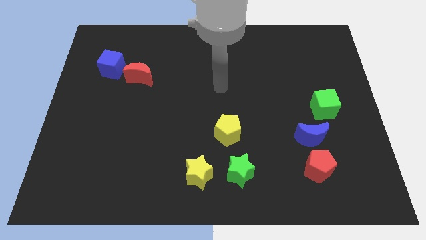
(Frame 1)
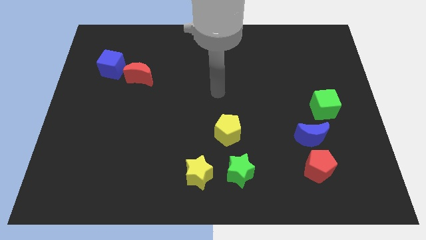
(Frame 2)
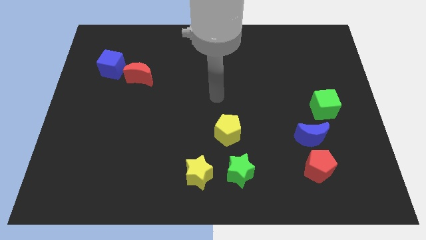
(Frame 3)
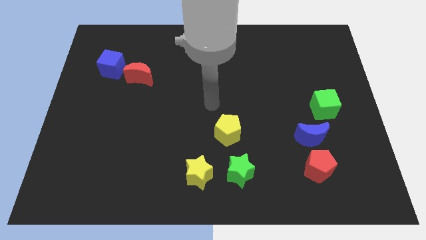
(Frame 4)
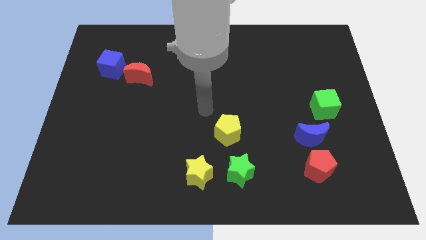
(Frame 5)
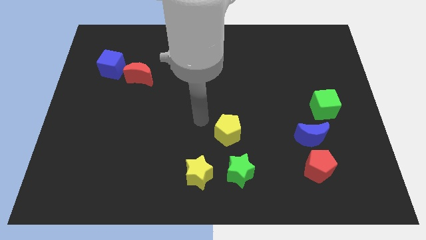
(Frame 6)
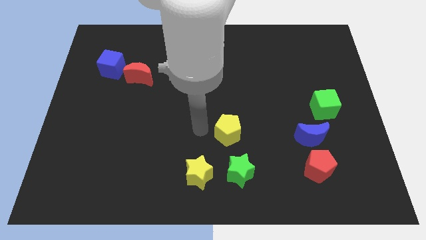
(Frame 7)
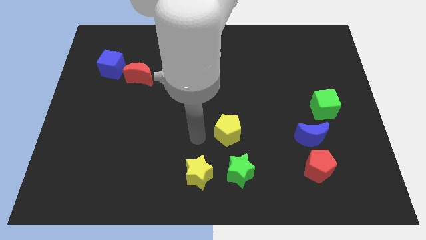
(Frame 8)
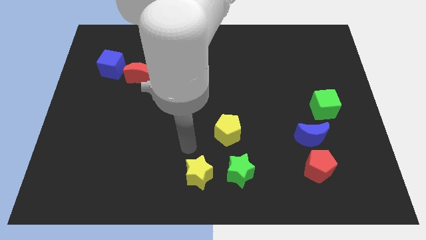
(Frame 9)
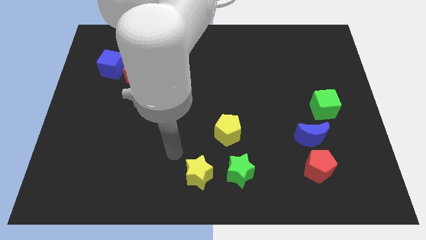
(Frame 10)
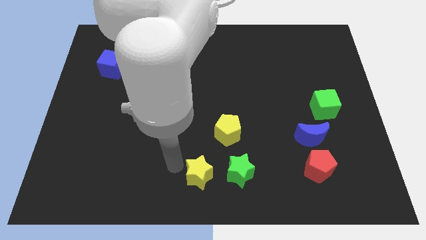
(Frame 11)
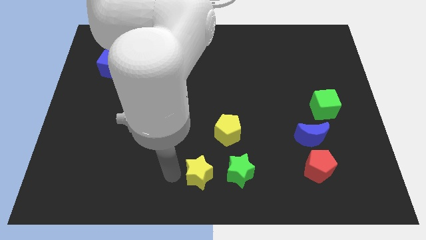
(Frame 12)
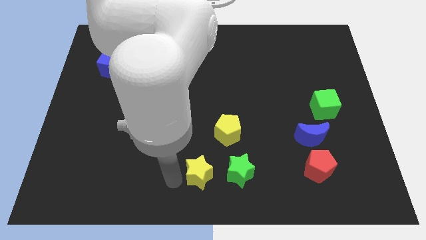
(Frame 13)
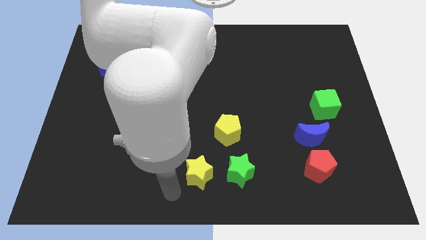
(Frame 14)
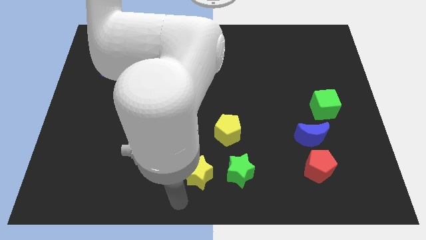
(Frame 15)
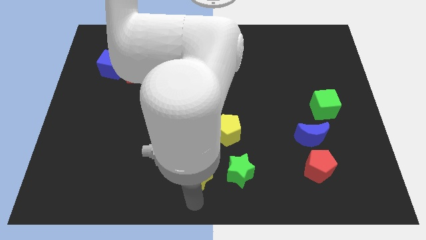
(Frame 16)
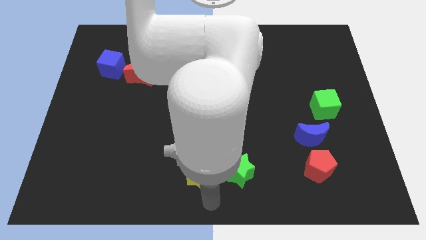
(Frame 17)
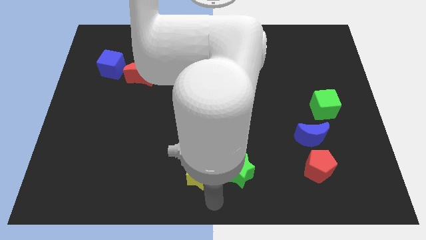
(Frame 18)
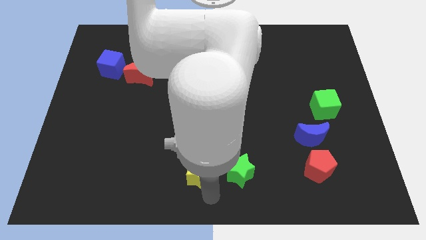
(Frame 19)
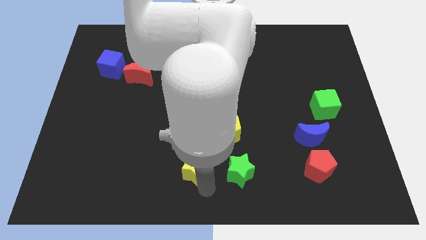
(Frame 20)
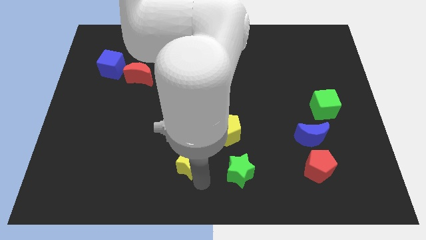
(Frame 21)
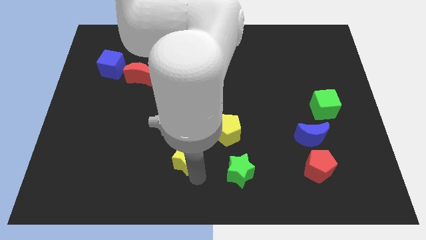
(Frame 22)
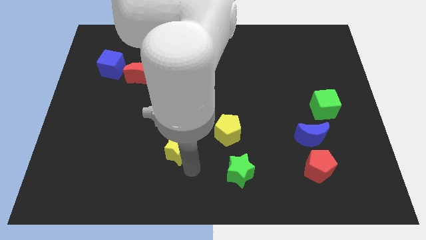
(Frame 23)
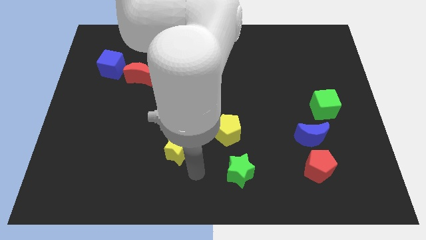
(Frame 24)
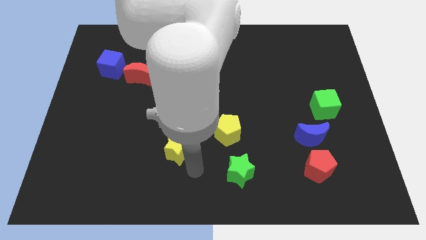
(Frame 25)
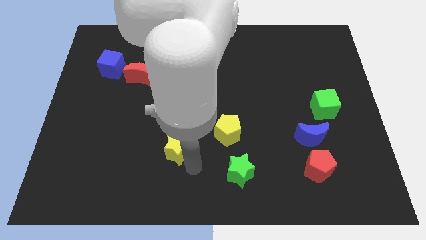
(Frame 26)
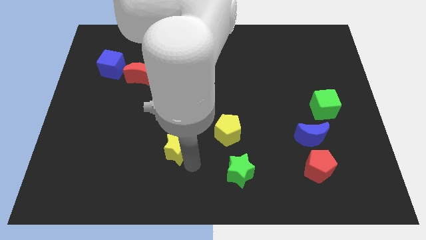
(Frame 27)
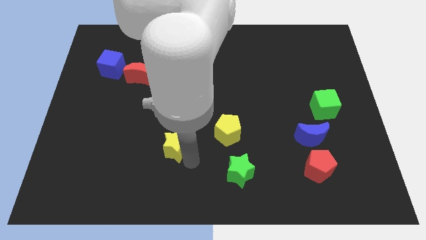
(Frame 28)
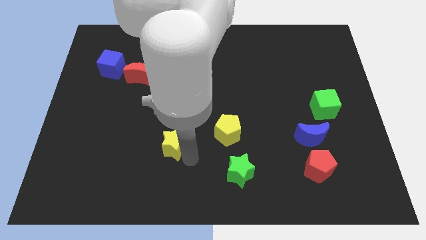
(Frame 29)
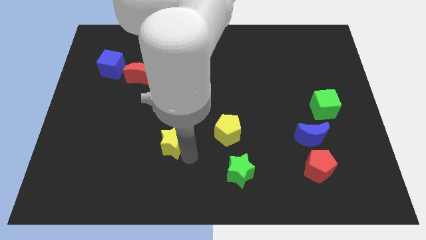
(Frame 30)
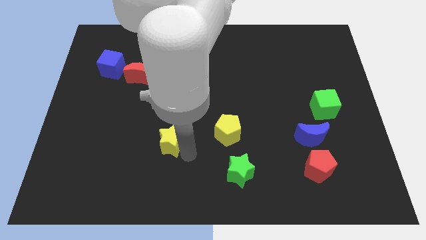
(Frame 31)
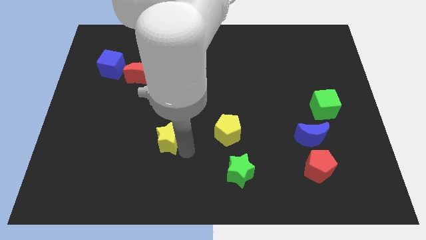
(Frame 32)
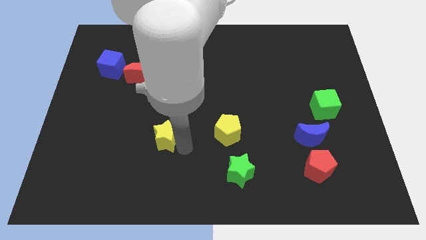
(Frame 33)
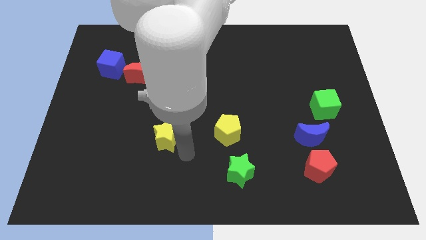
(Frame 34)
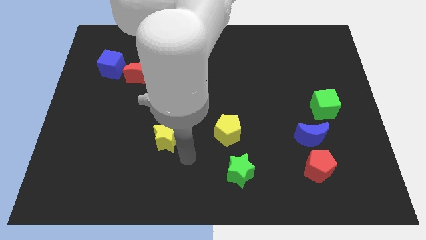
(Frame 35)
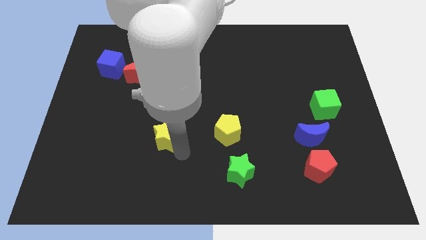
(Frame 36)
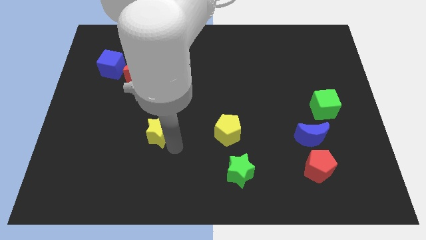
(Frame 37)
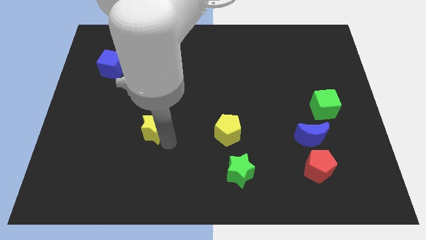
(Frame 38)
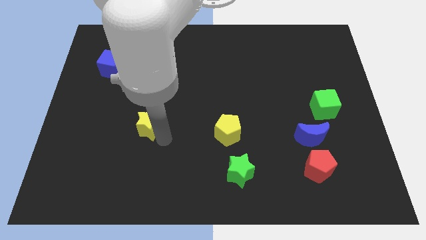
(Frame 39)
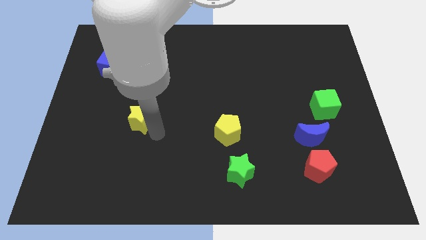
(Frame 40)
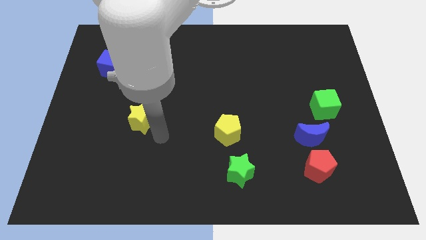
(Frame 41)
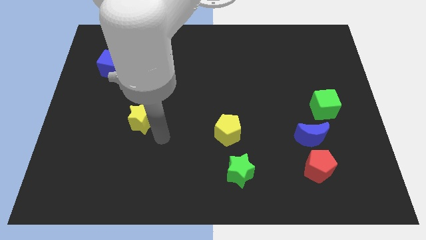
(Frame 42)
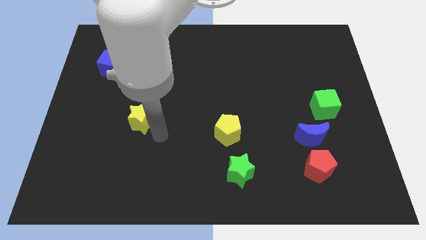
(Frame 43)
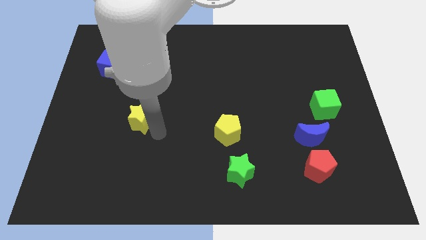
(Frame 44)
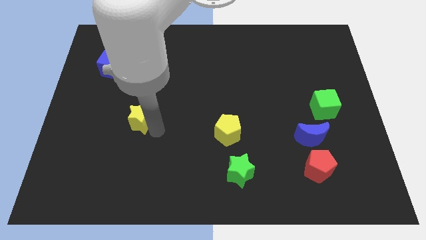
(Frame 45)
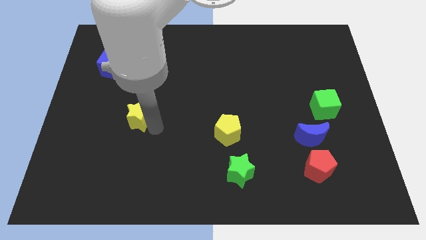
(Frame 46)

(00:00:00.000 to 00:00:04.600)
push the yellow star upwards and left diagonally

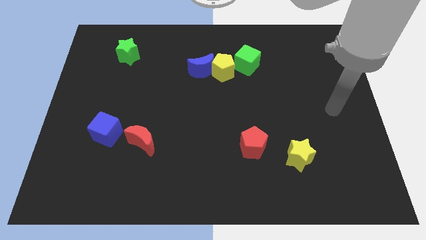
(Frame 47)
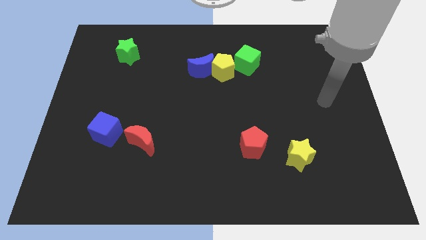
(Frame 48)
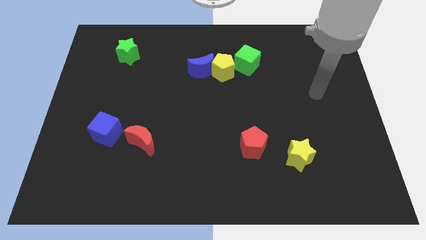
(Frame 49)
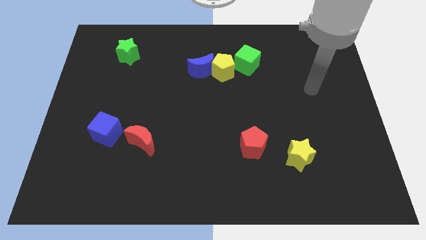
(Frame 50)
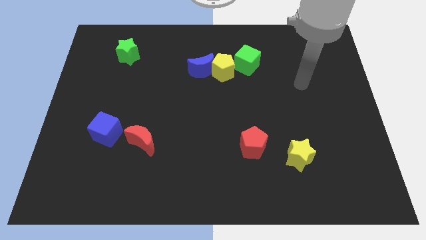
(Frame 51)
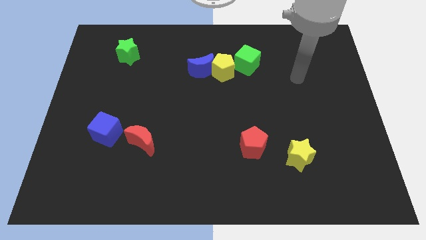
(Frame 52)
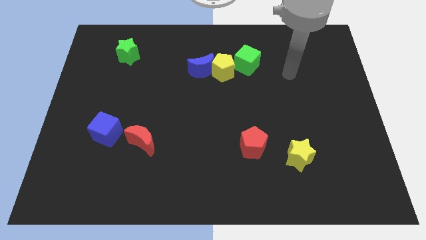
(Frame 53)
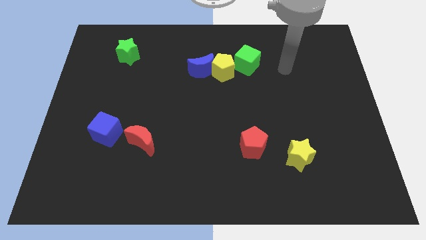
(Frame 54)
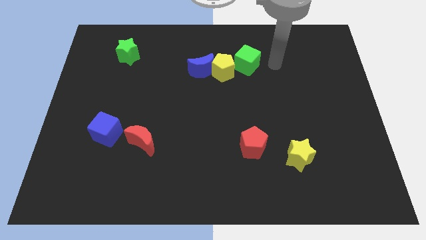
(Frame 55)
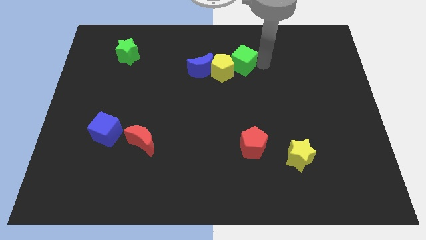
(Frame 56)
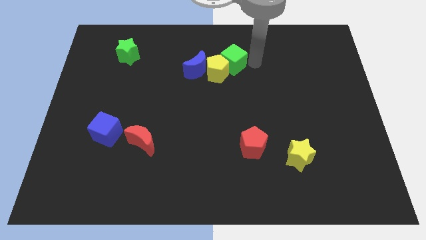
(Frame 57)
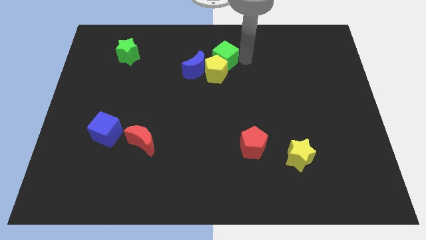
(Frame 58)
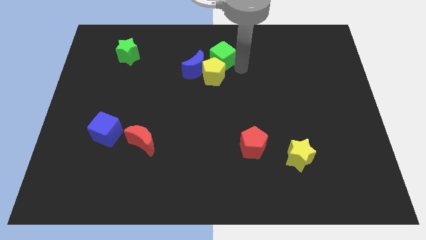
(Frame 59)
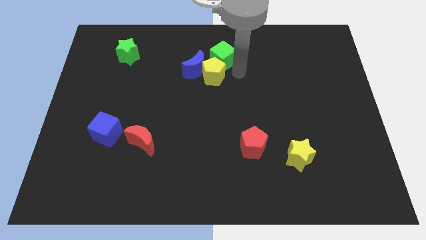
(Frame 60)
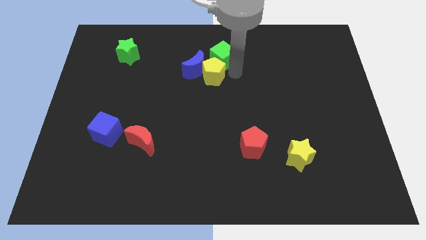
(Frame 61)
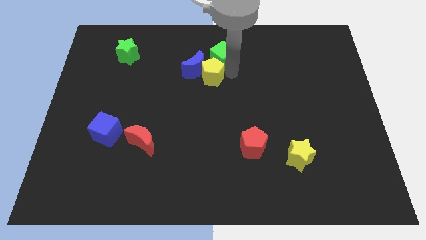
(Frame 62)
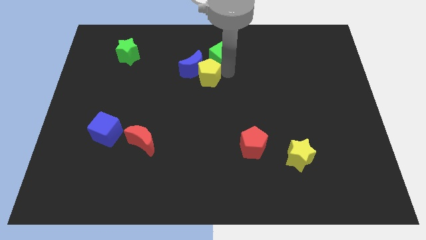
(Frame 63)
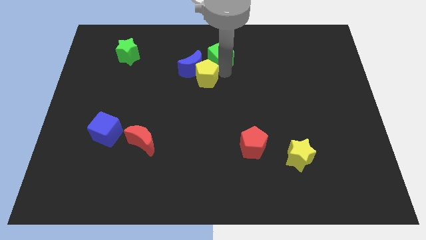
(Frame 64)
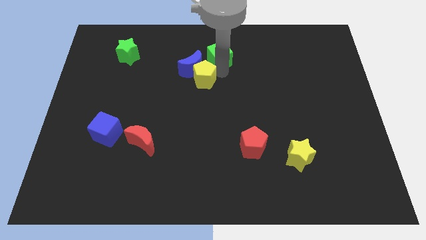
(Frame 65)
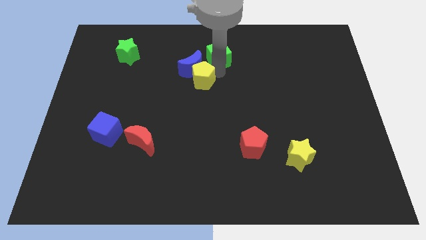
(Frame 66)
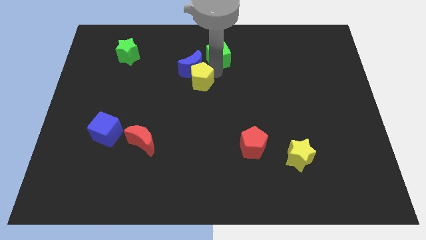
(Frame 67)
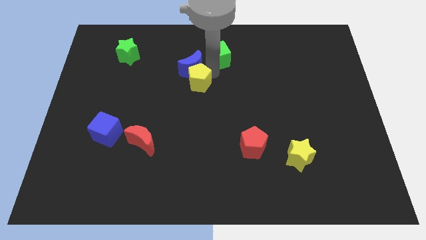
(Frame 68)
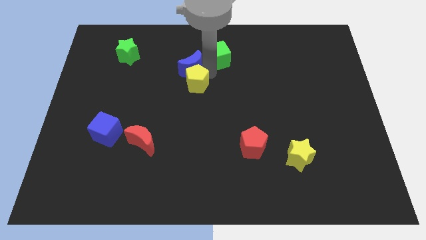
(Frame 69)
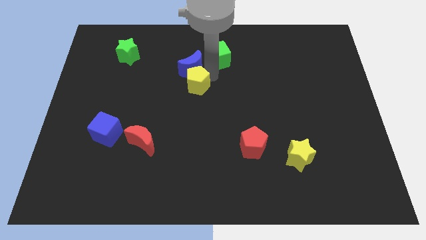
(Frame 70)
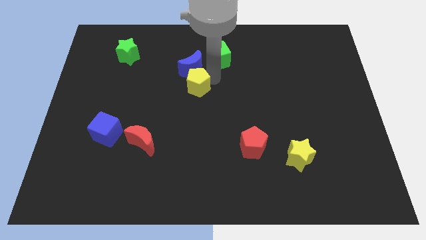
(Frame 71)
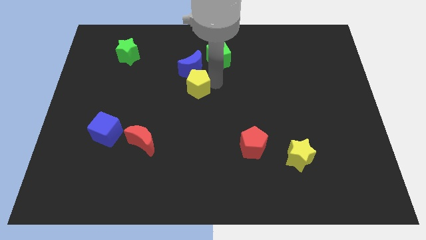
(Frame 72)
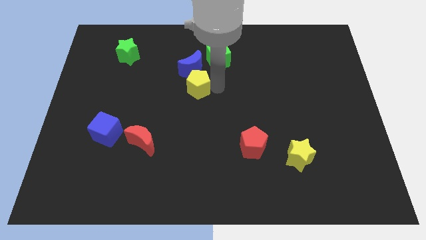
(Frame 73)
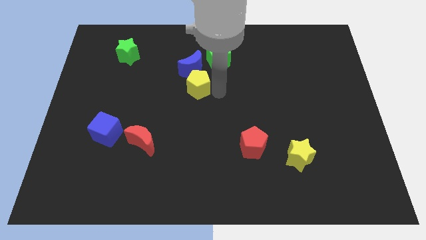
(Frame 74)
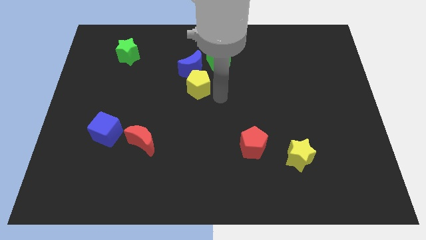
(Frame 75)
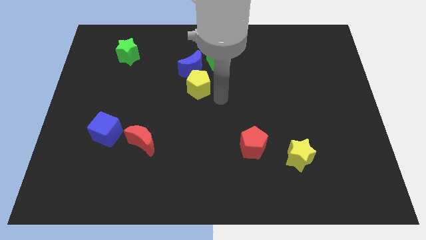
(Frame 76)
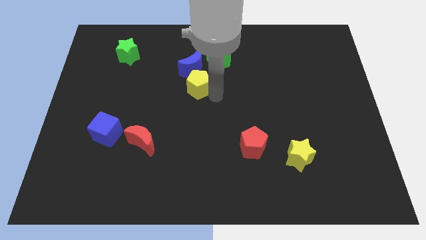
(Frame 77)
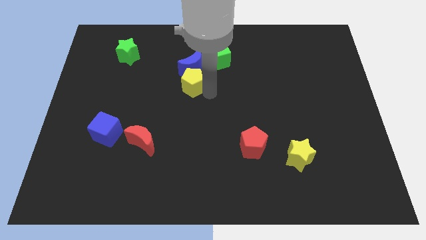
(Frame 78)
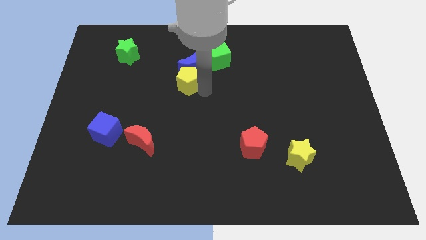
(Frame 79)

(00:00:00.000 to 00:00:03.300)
slightly move the yellow pentagon to the left
